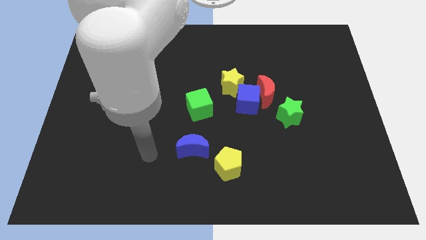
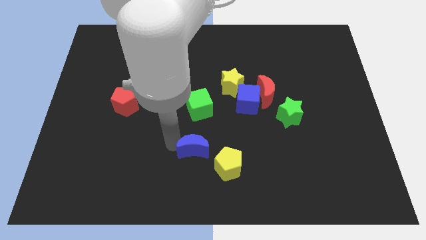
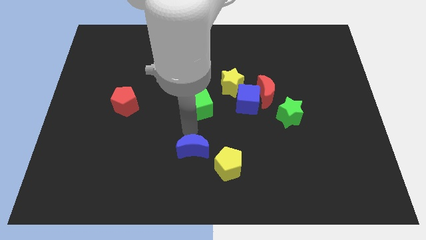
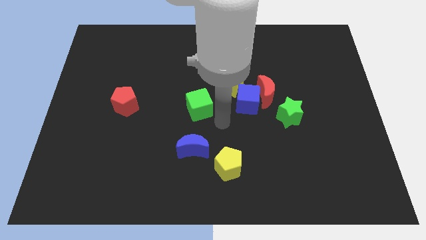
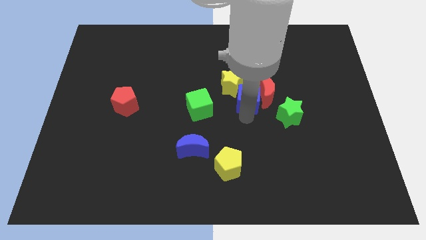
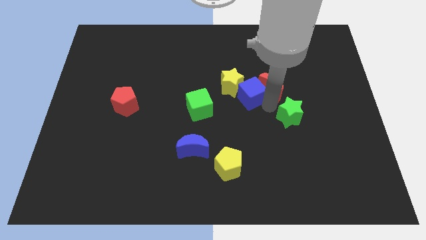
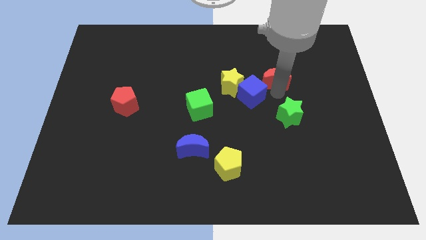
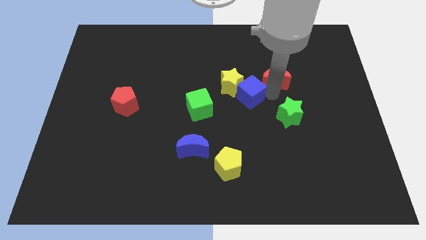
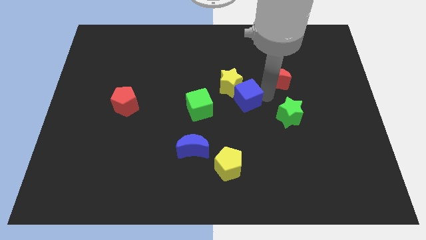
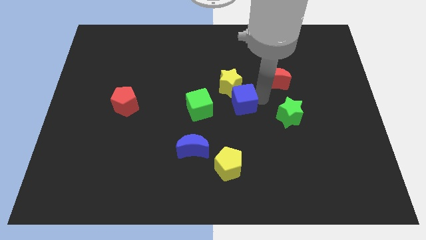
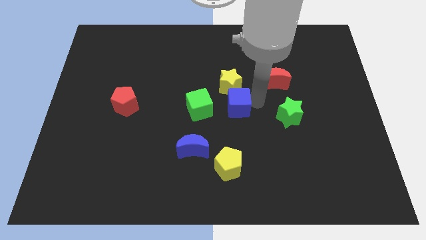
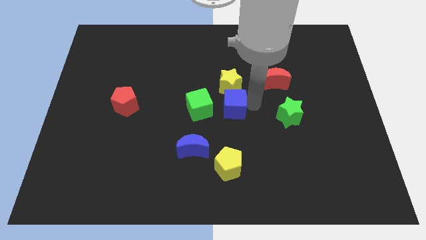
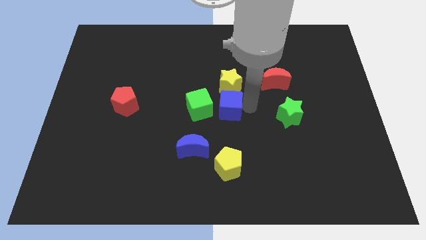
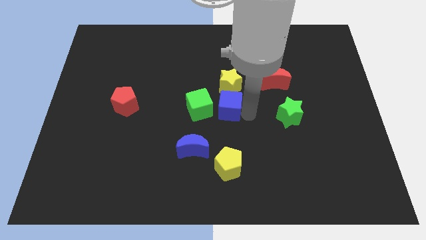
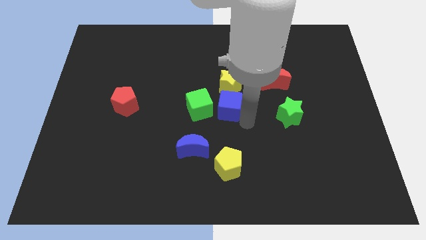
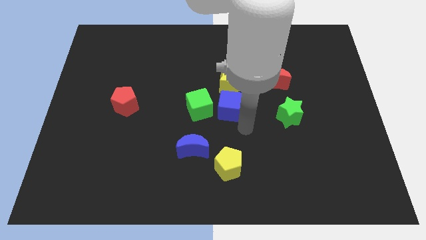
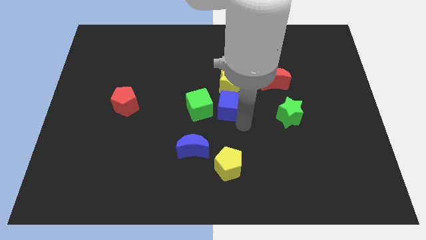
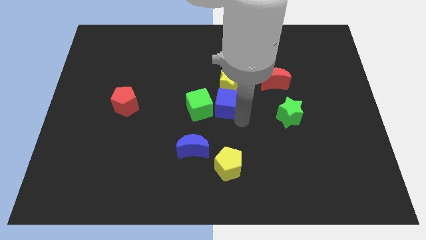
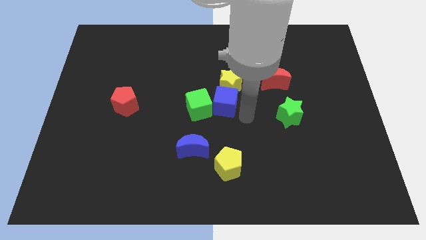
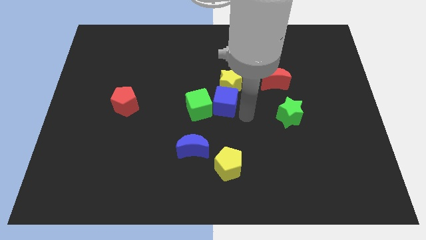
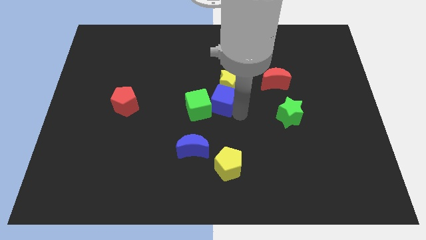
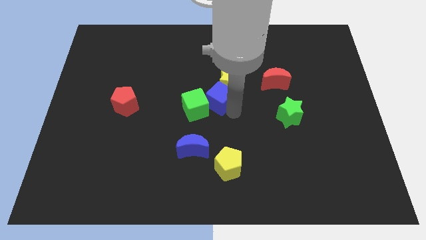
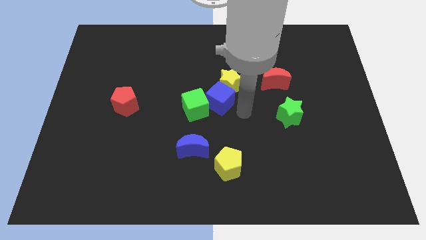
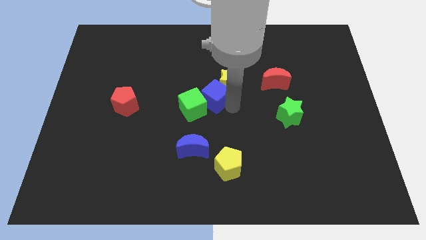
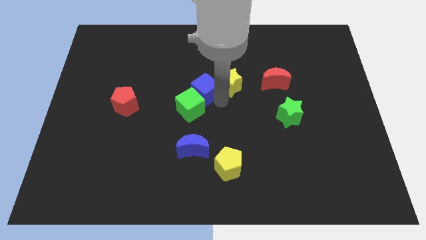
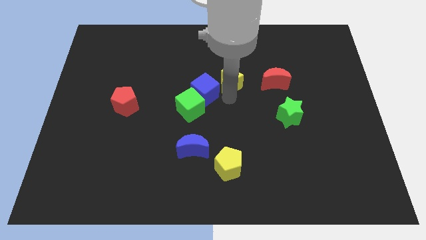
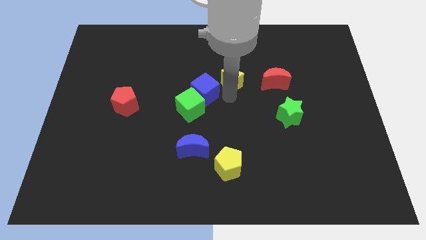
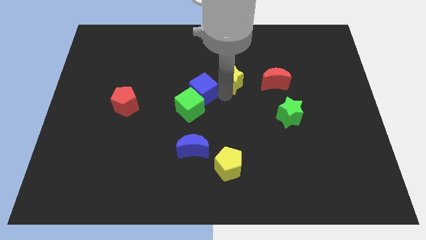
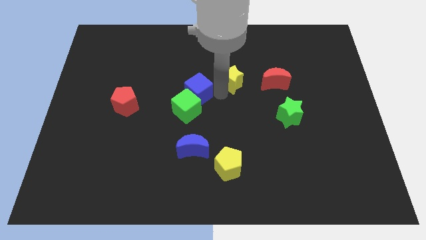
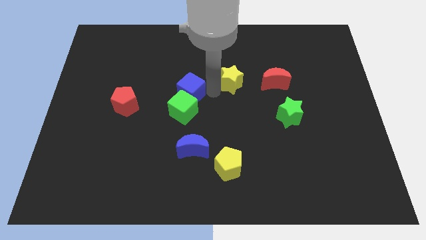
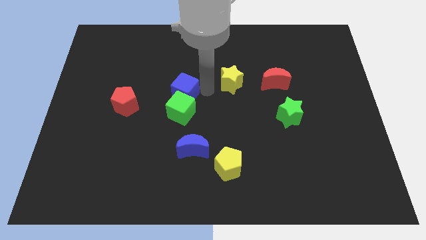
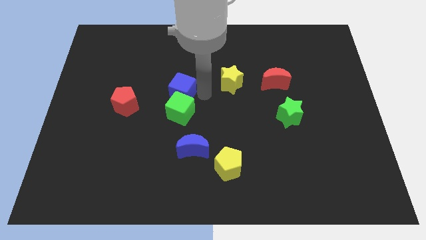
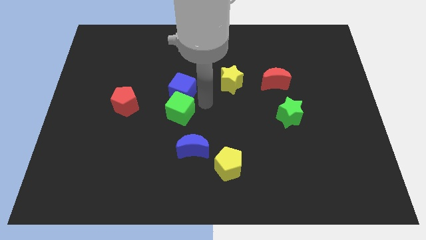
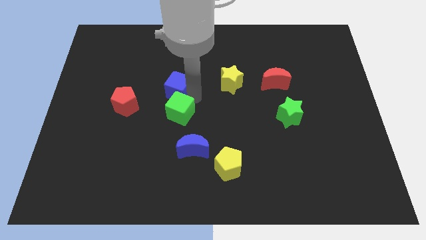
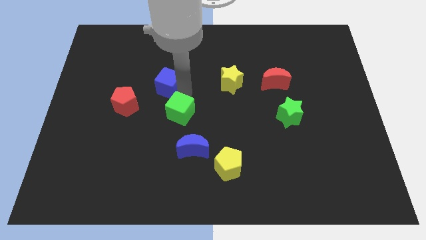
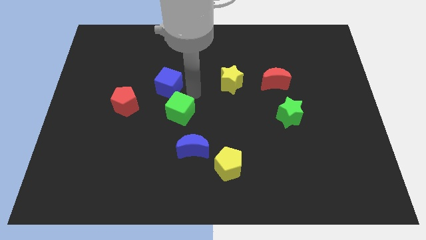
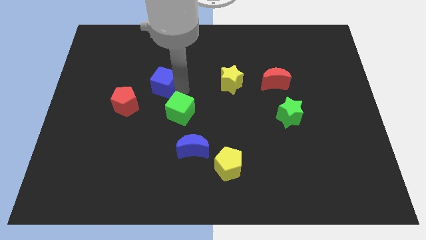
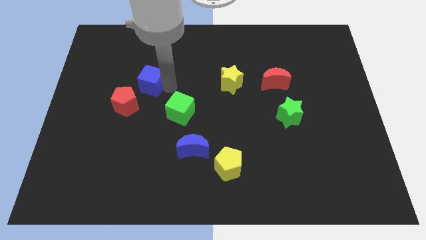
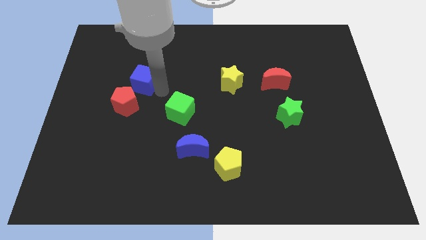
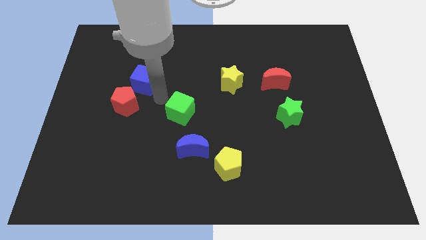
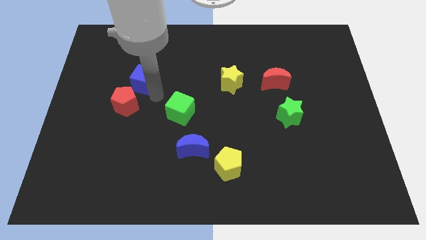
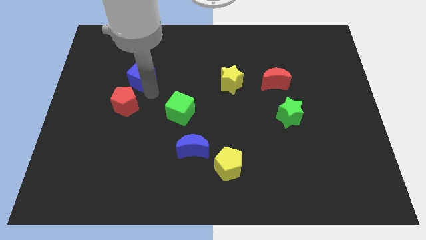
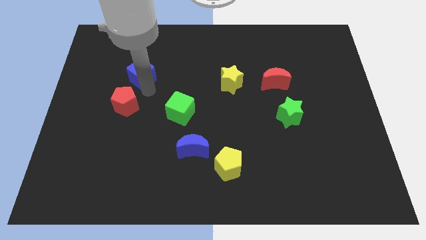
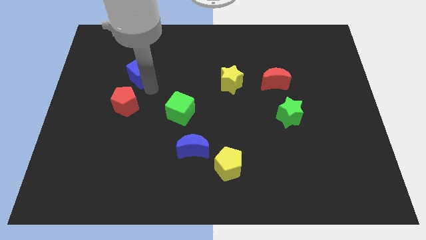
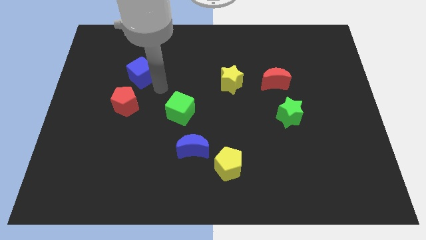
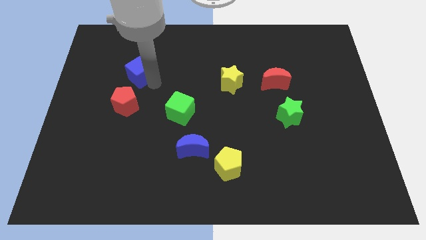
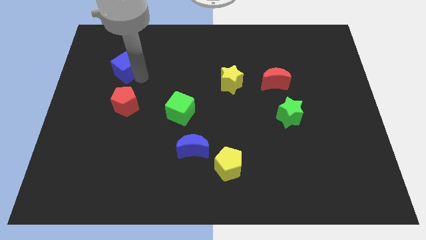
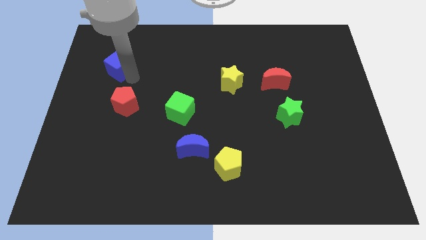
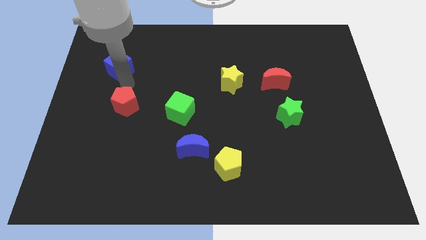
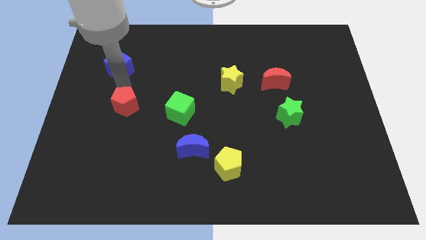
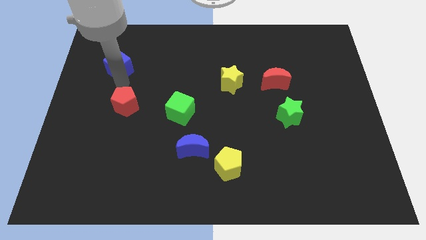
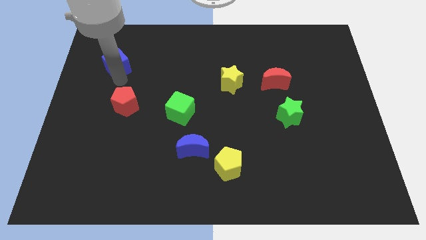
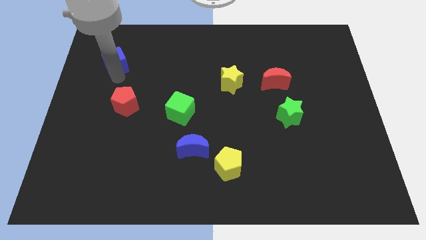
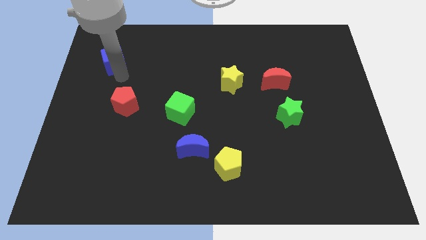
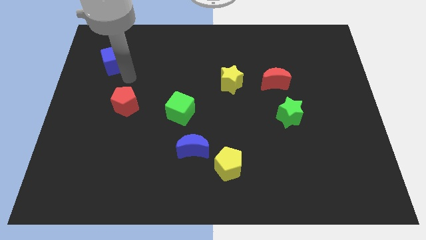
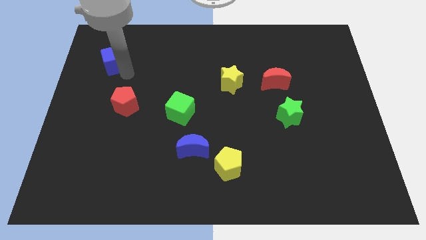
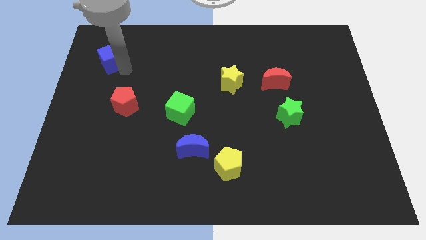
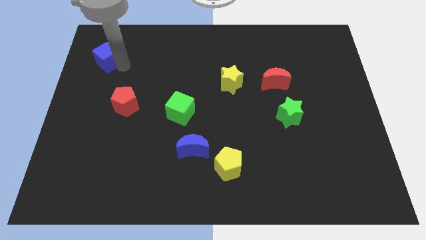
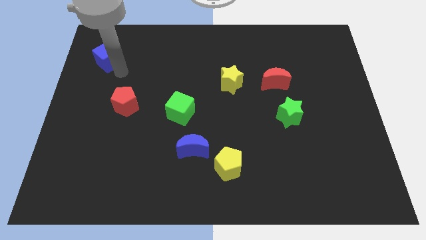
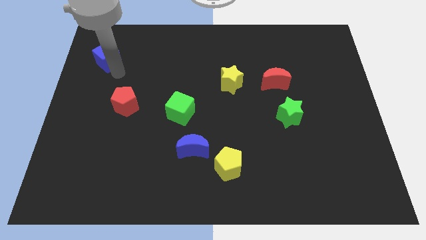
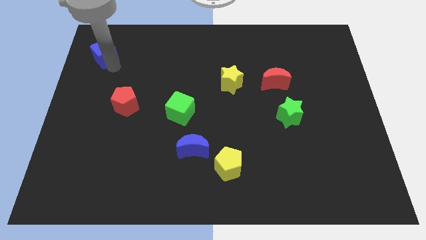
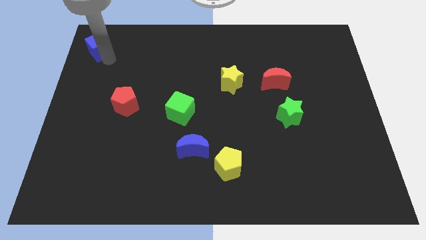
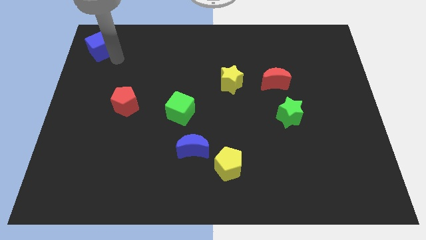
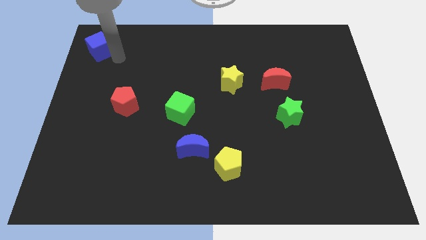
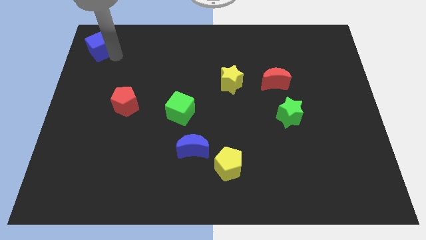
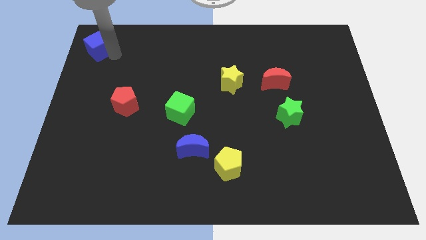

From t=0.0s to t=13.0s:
push the blue cube to the upper left corner
